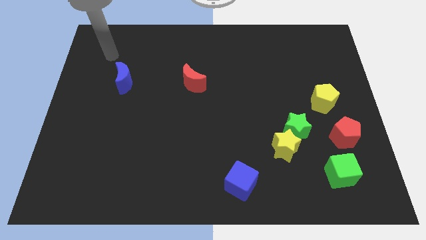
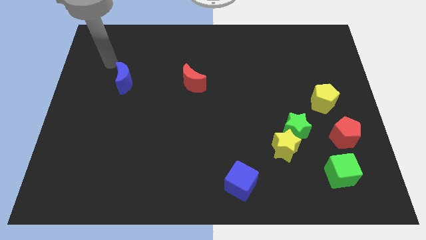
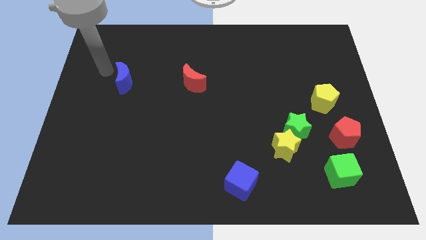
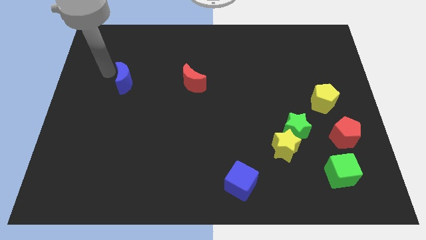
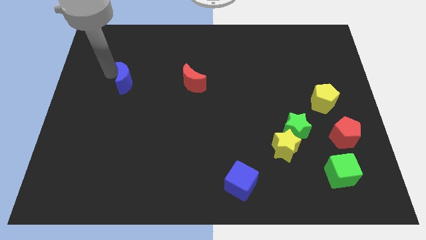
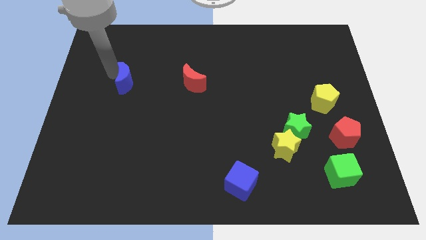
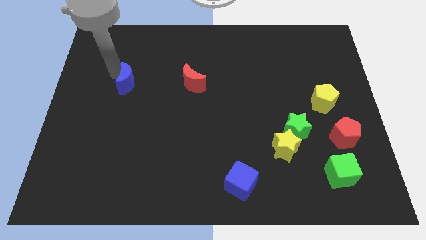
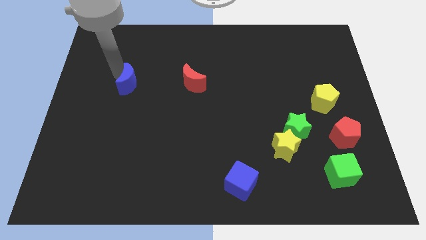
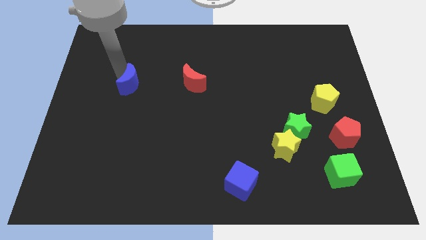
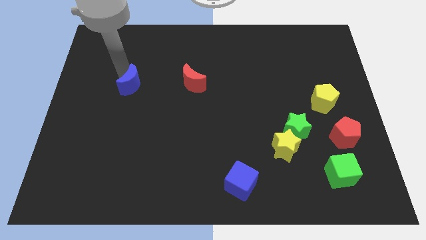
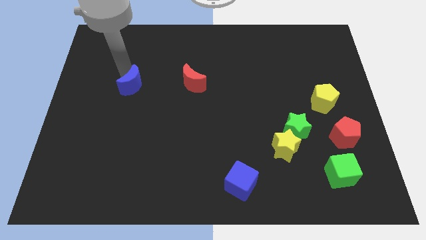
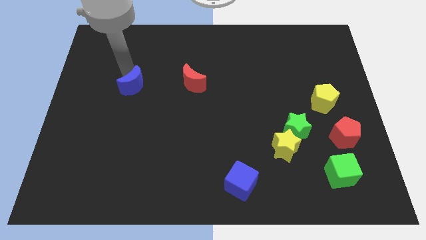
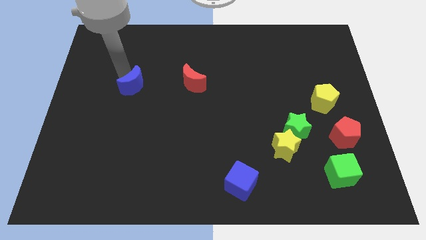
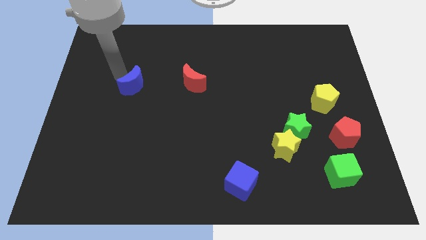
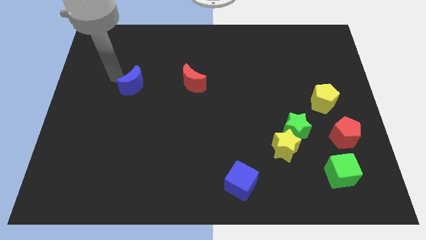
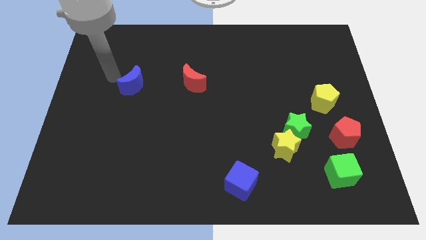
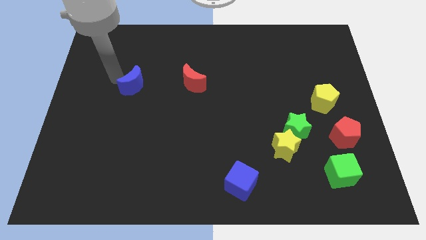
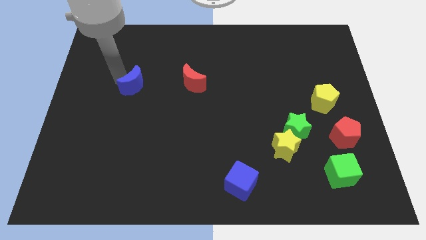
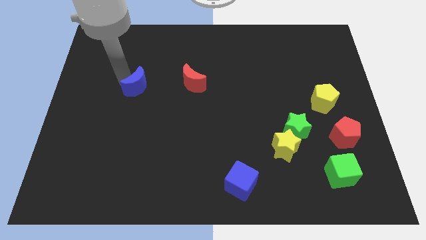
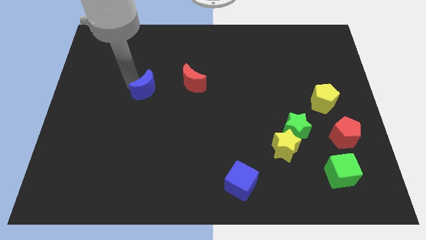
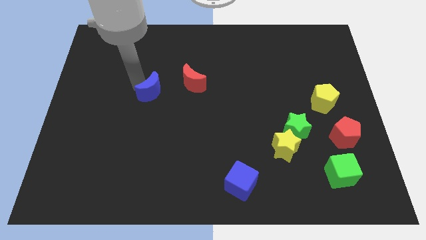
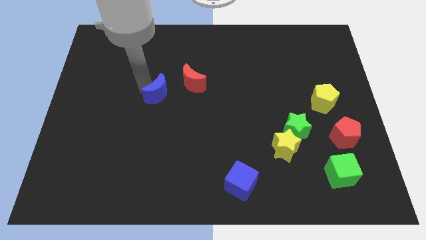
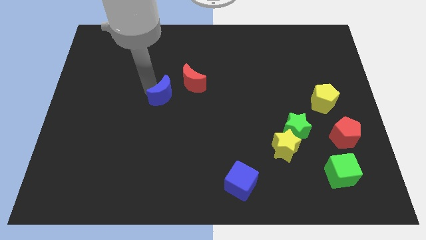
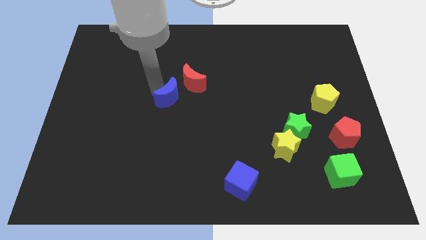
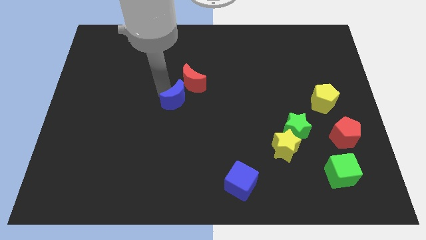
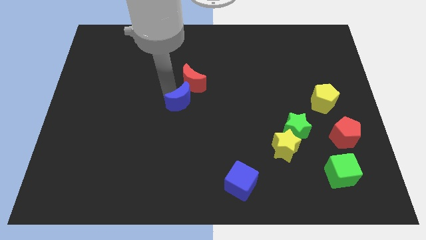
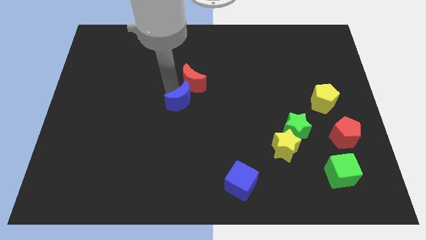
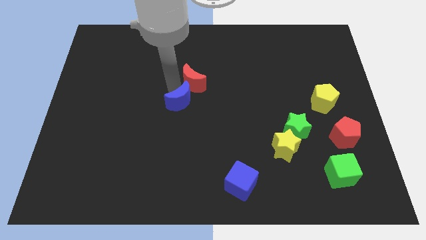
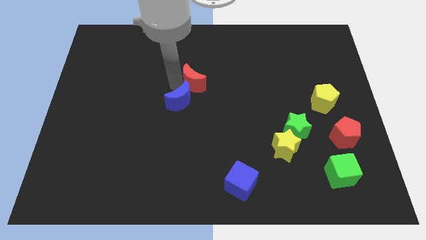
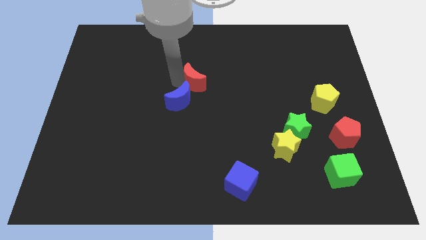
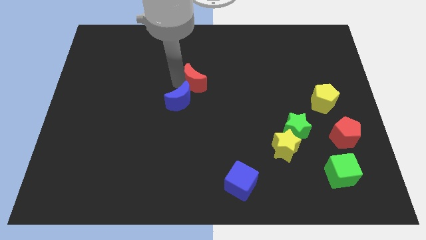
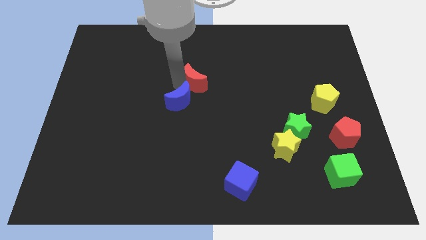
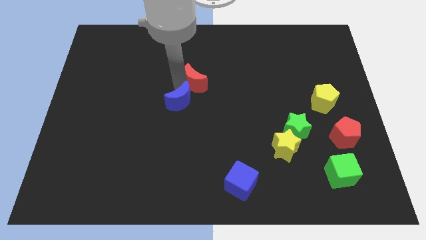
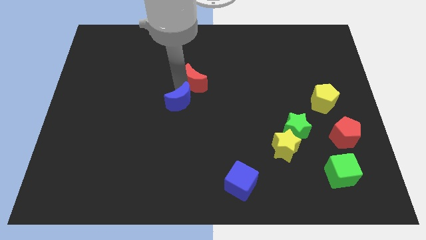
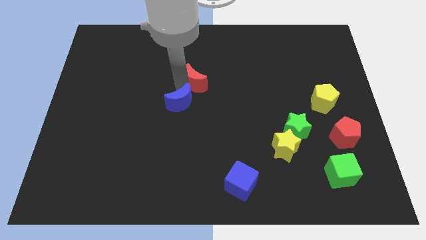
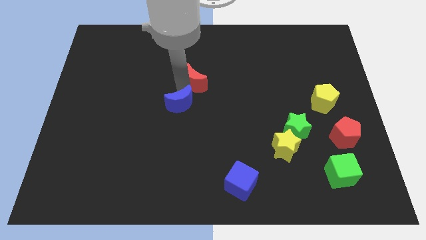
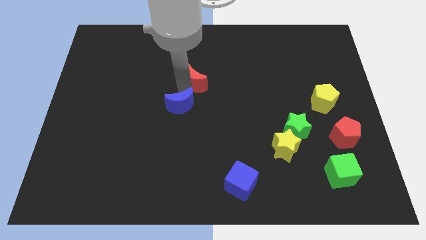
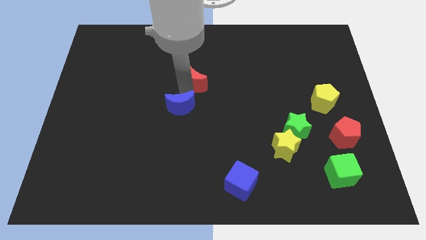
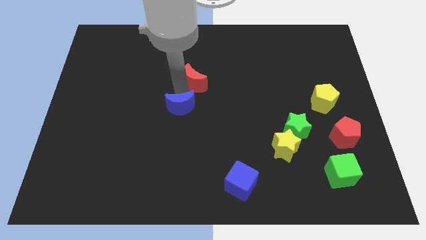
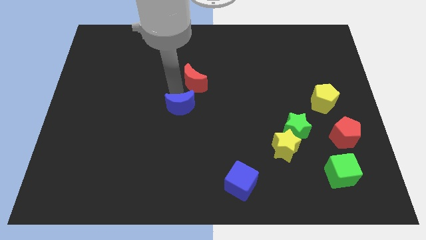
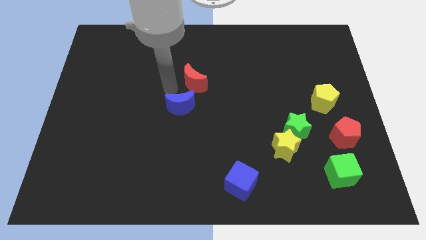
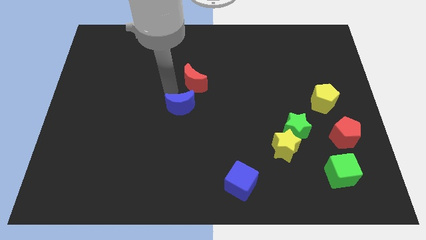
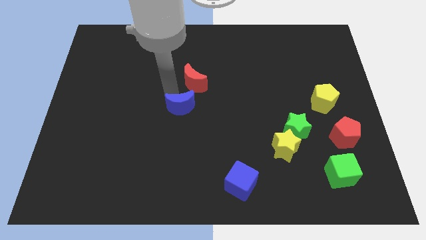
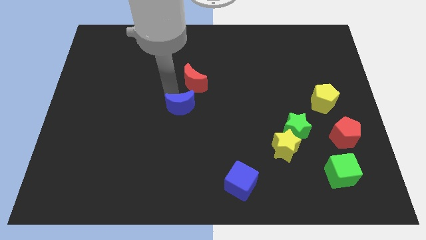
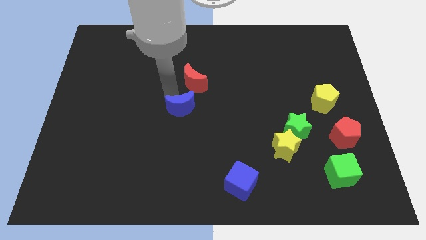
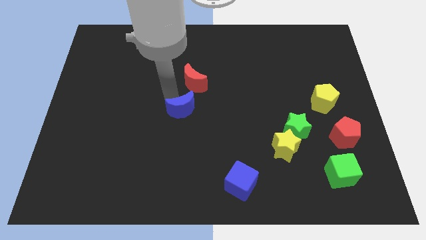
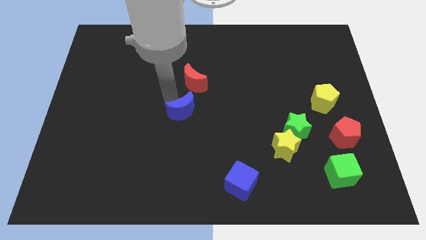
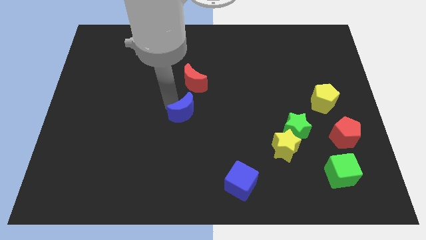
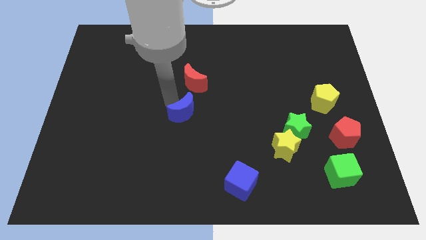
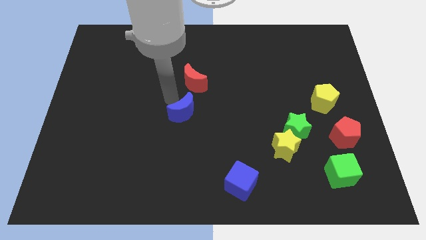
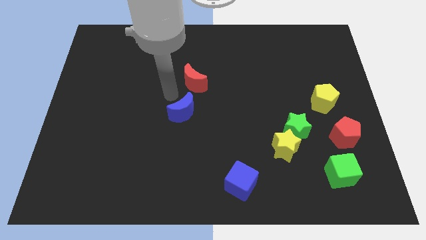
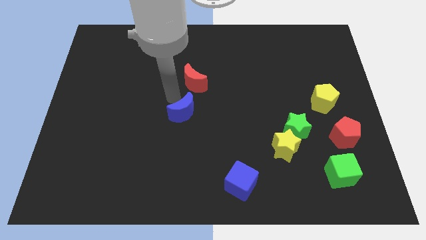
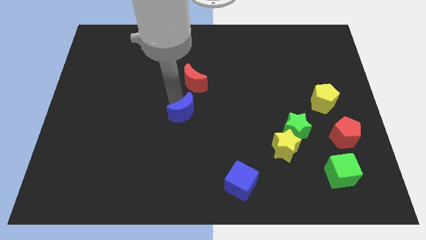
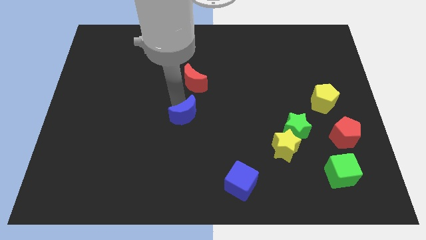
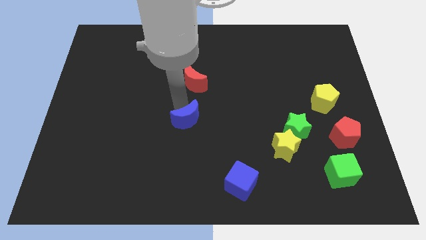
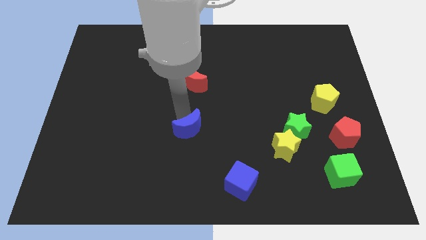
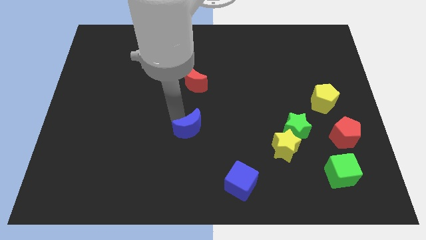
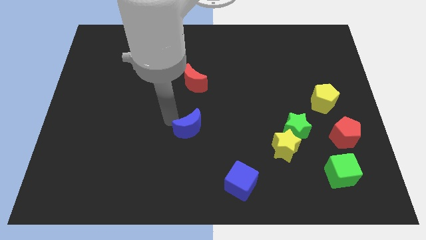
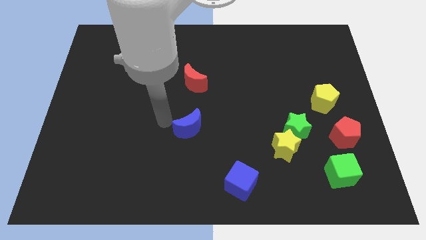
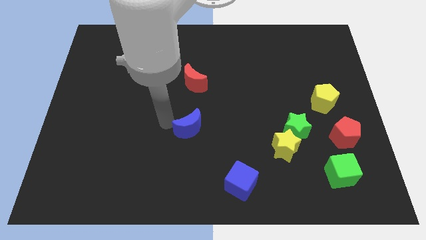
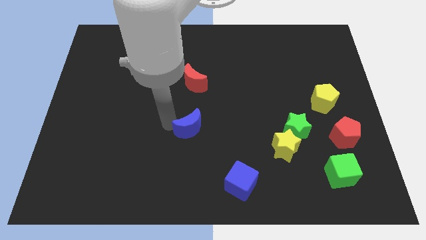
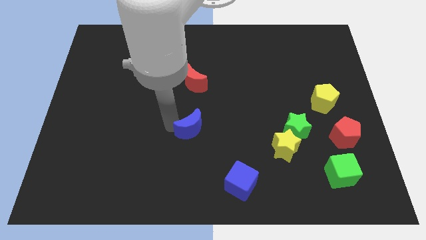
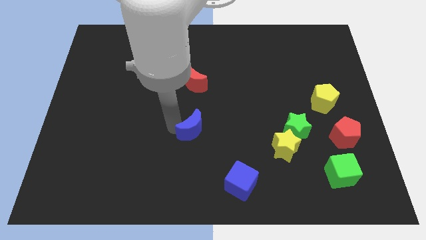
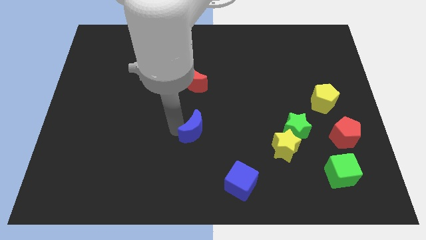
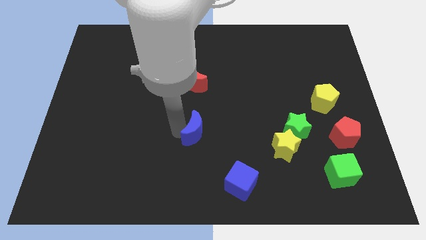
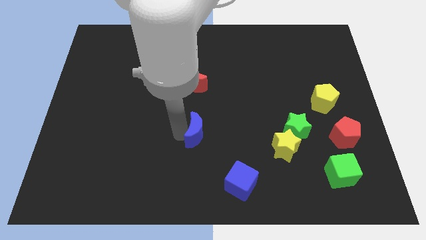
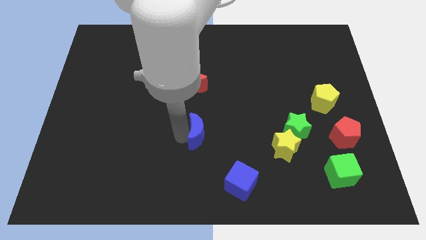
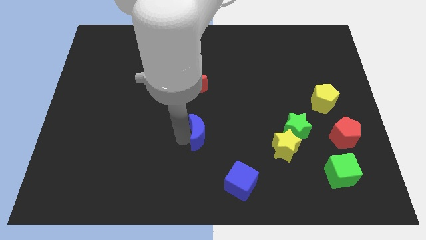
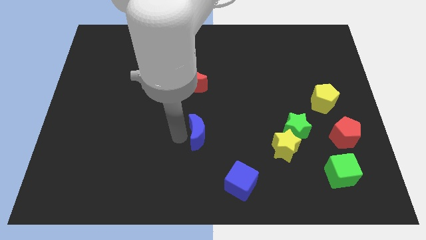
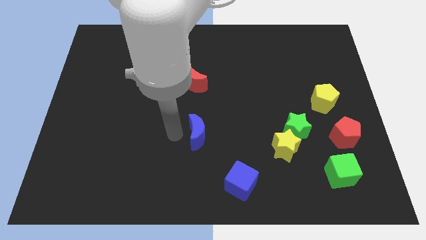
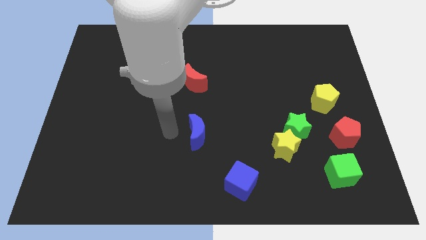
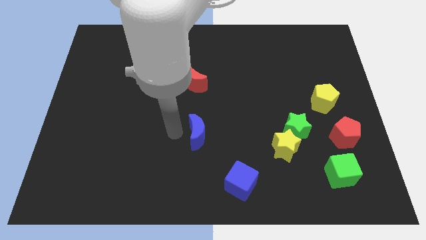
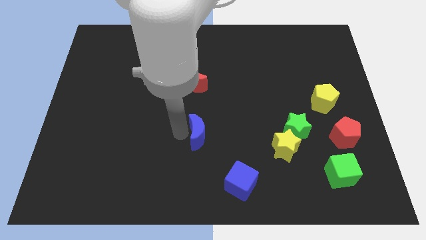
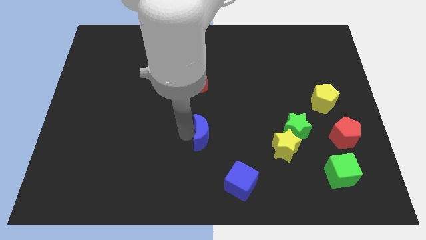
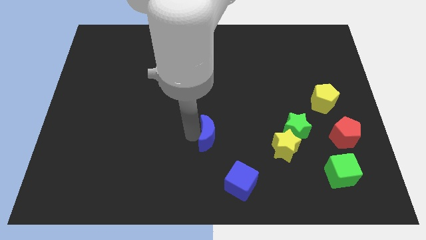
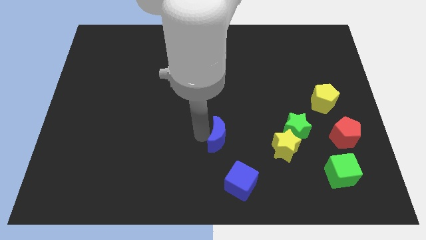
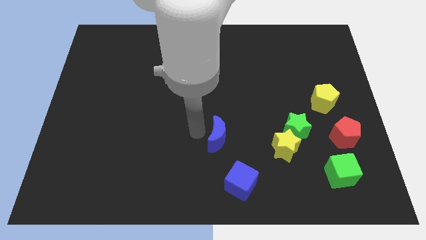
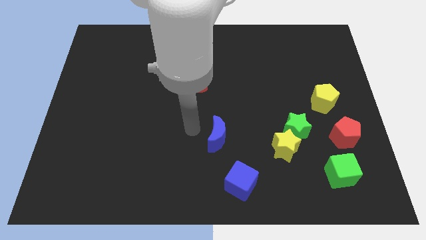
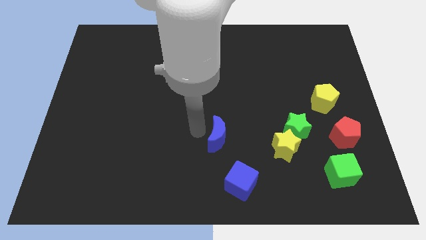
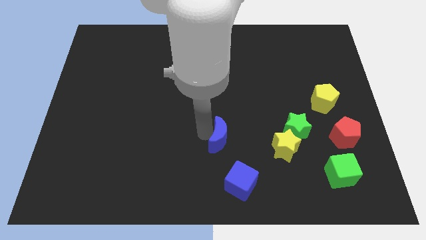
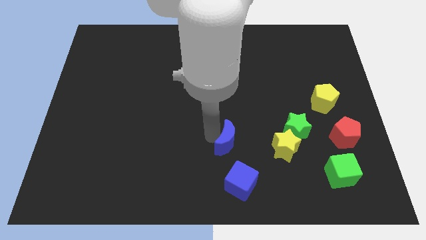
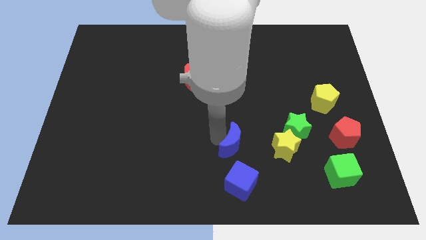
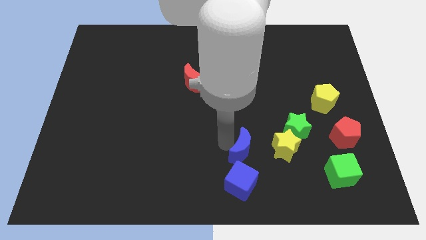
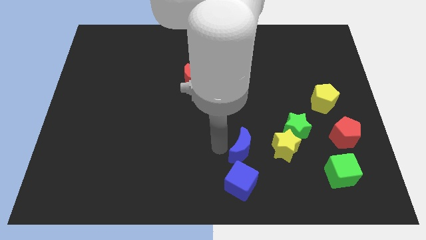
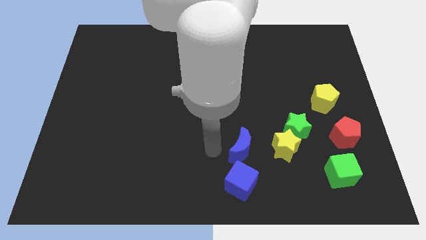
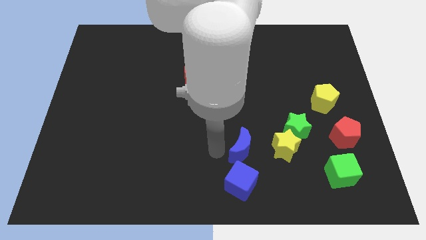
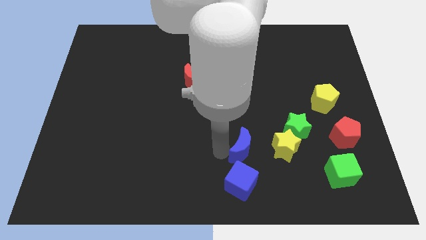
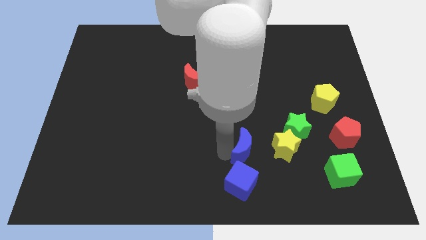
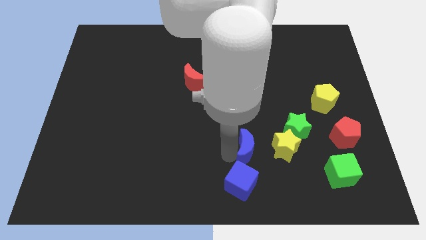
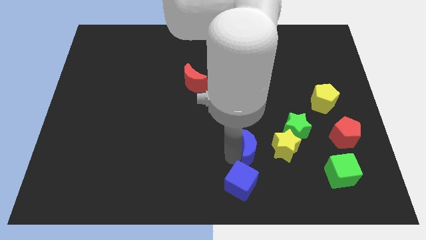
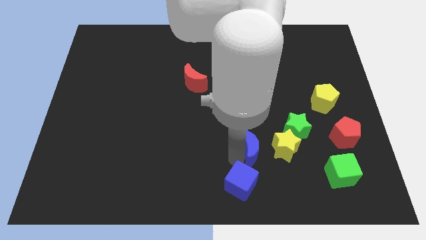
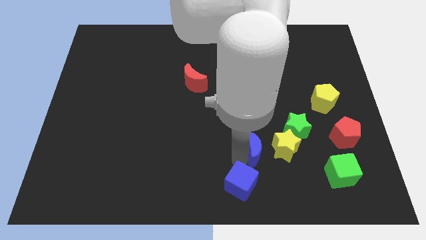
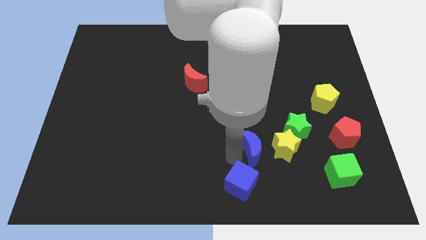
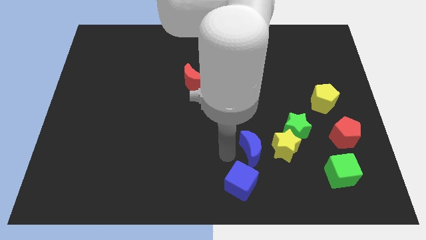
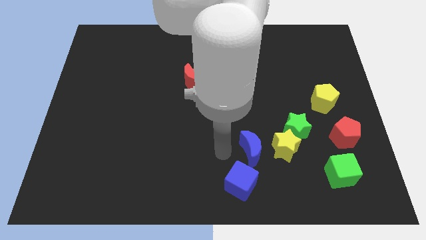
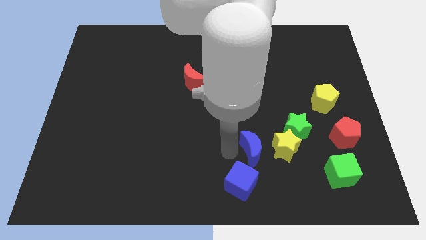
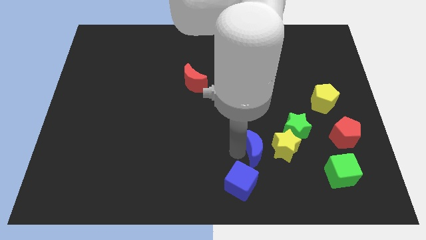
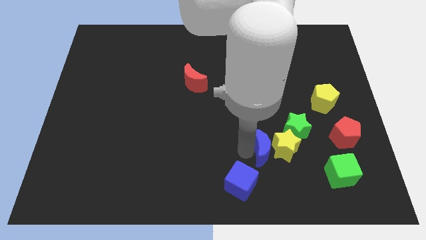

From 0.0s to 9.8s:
move the blue moon next to the yellow star
